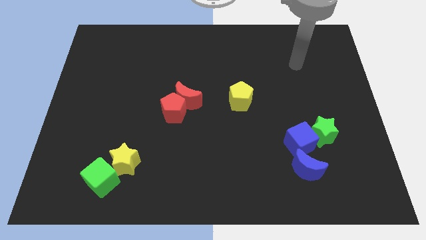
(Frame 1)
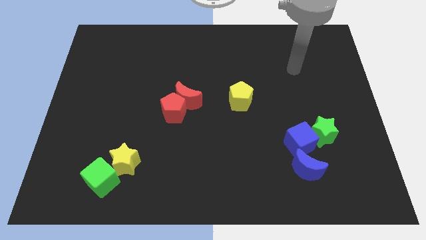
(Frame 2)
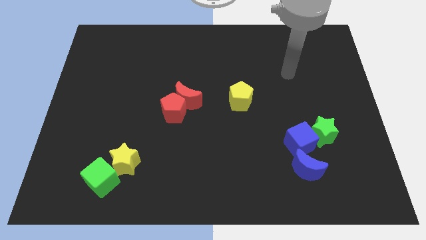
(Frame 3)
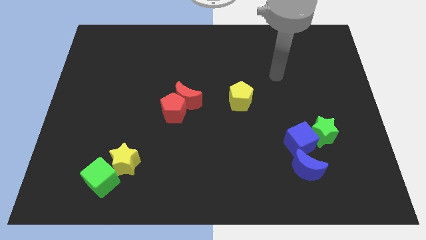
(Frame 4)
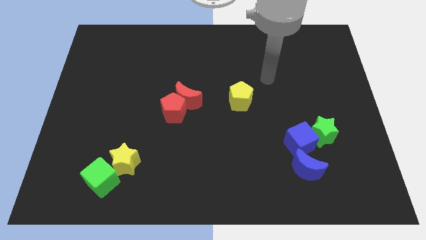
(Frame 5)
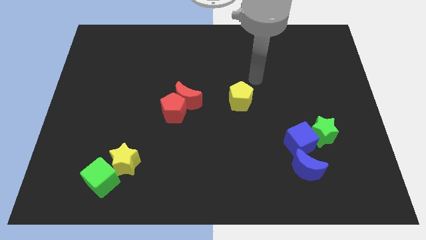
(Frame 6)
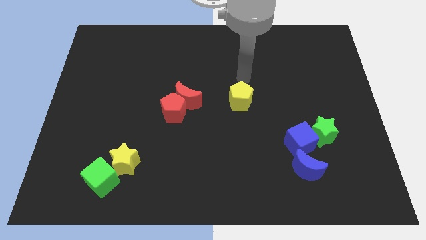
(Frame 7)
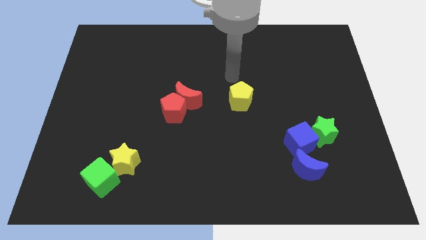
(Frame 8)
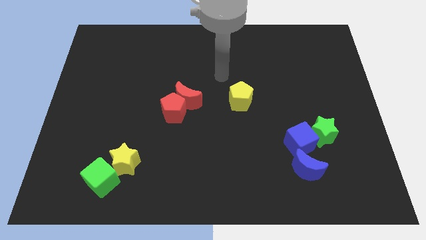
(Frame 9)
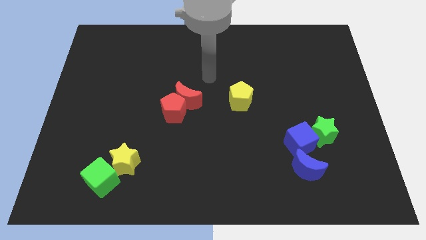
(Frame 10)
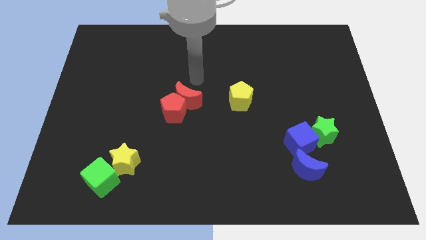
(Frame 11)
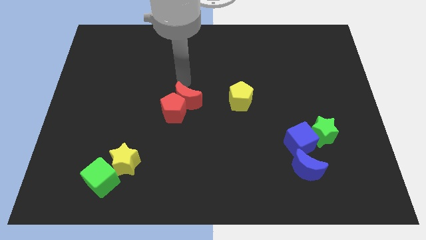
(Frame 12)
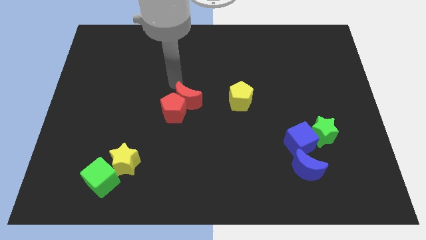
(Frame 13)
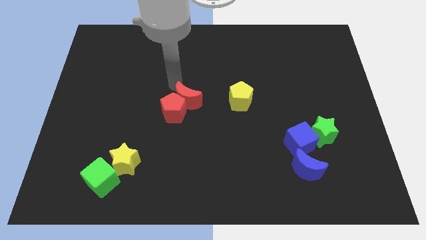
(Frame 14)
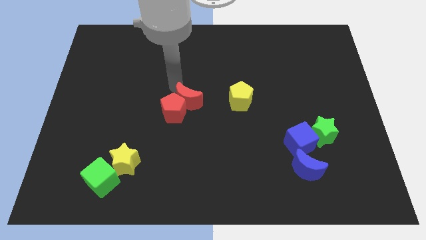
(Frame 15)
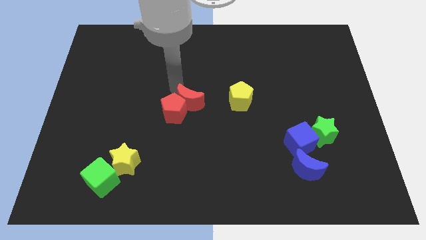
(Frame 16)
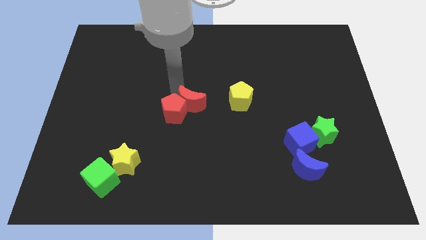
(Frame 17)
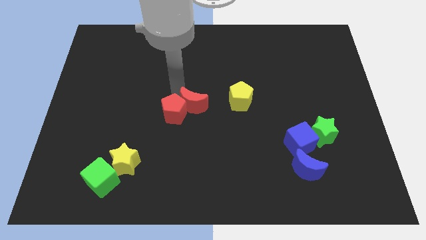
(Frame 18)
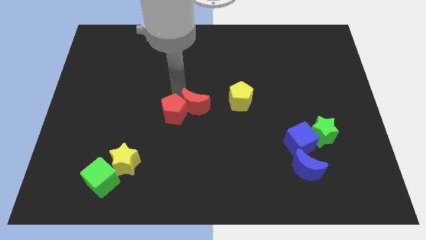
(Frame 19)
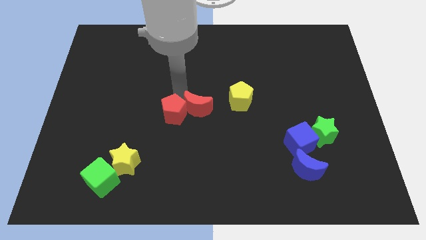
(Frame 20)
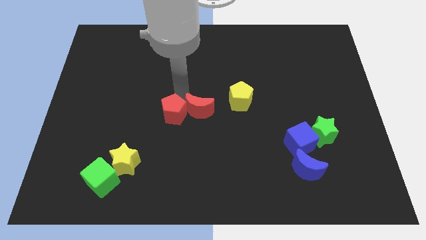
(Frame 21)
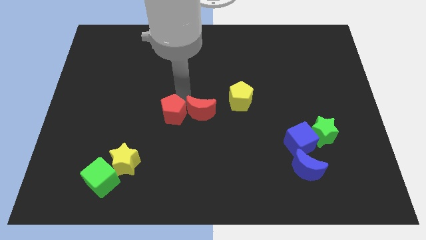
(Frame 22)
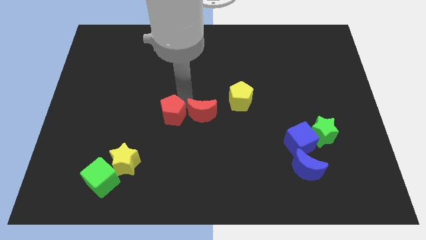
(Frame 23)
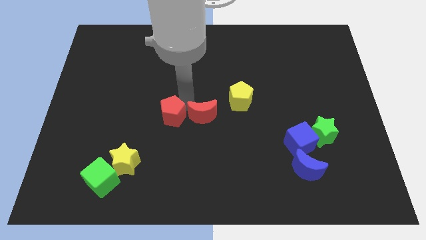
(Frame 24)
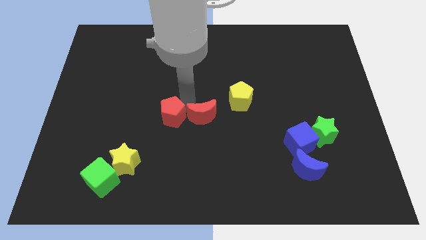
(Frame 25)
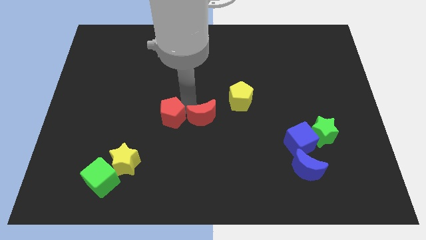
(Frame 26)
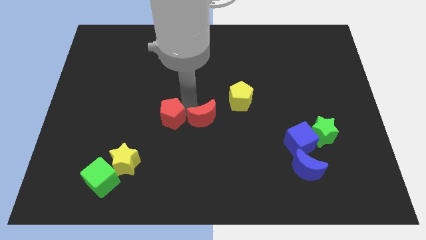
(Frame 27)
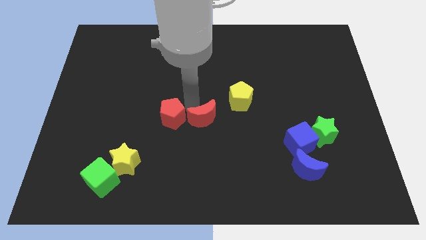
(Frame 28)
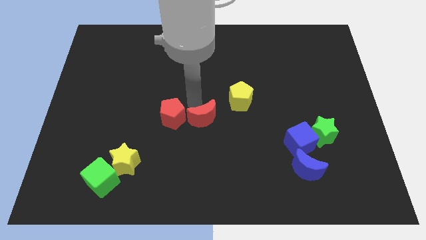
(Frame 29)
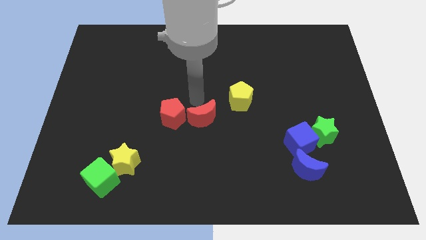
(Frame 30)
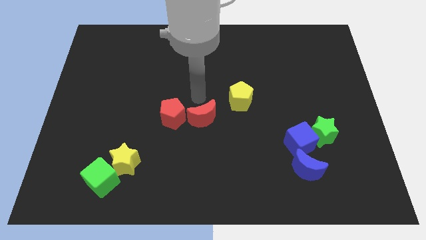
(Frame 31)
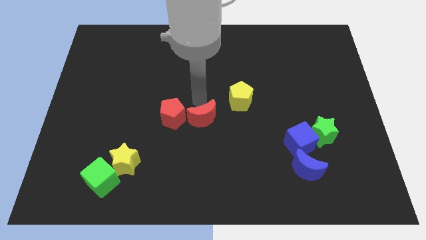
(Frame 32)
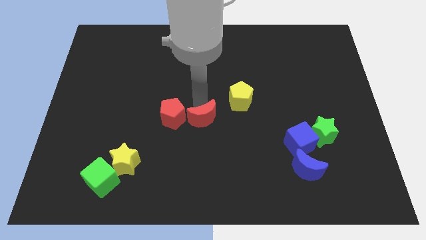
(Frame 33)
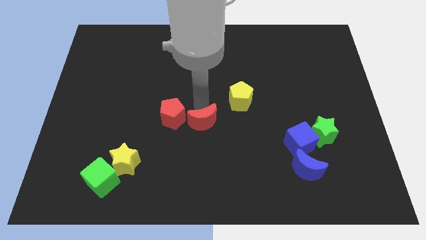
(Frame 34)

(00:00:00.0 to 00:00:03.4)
push the red moon downwards and to the right diagonally somewhat

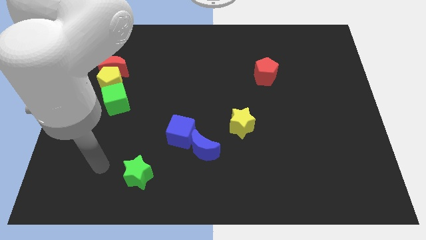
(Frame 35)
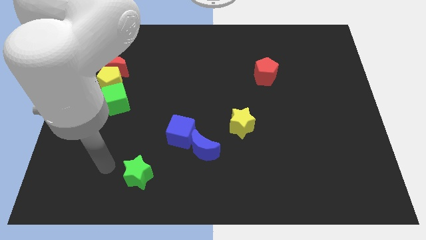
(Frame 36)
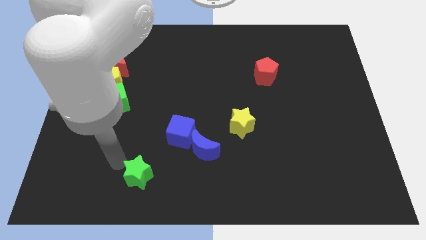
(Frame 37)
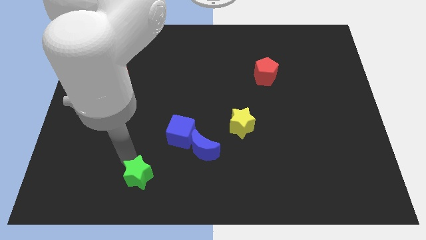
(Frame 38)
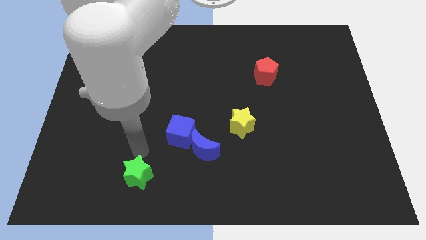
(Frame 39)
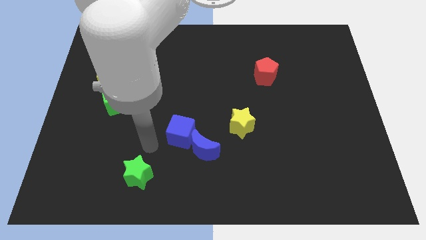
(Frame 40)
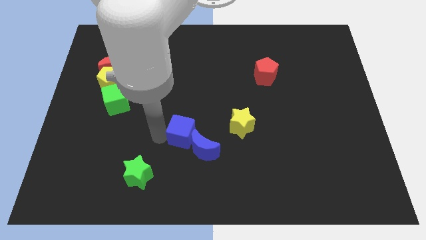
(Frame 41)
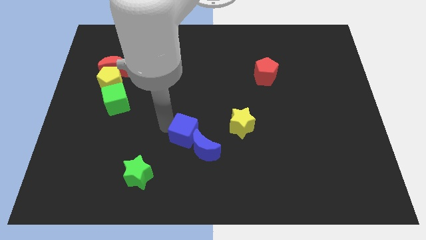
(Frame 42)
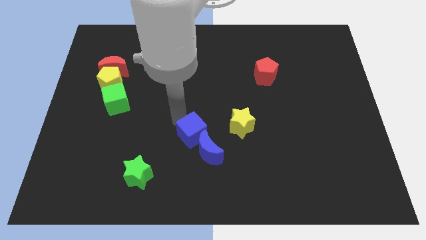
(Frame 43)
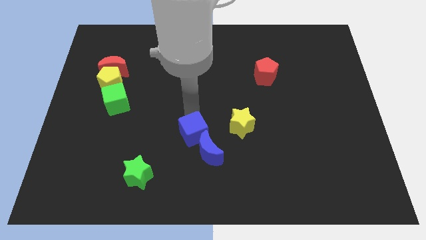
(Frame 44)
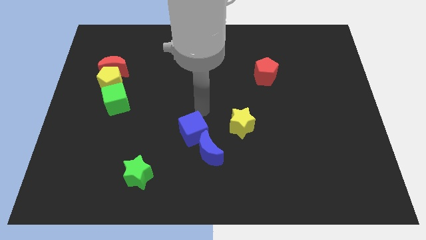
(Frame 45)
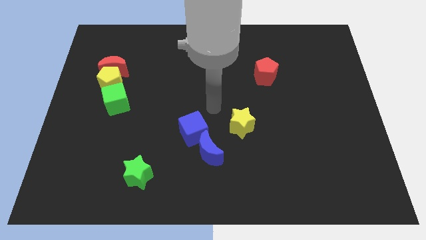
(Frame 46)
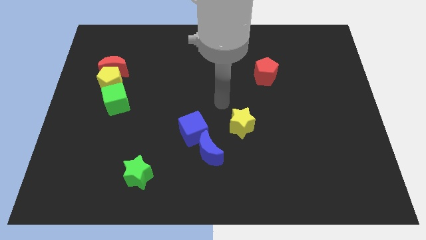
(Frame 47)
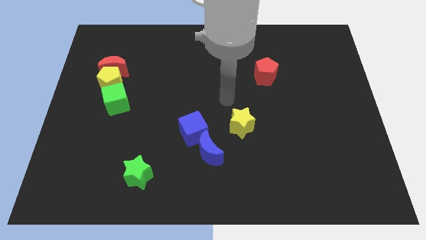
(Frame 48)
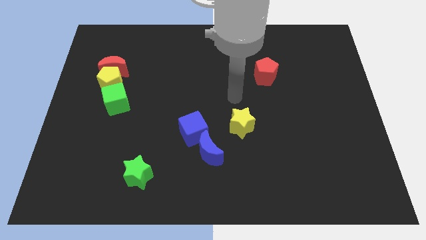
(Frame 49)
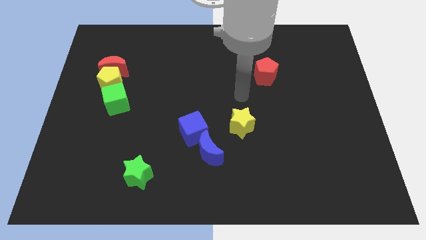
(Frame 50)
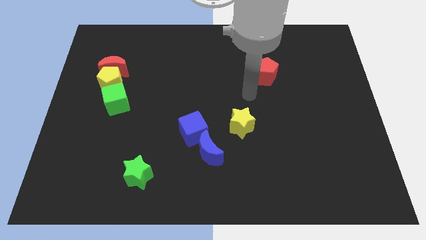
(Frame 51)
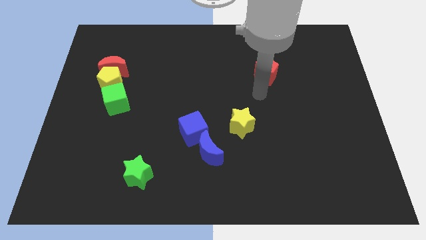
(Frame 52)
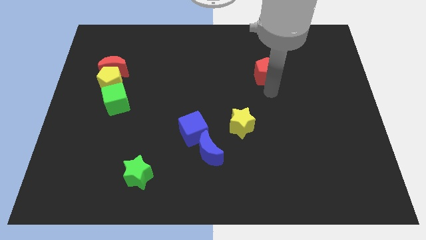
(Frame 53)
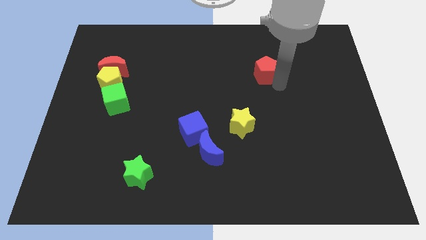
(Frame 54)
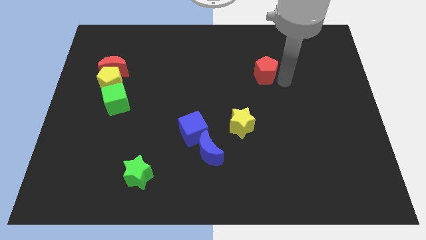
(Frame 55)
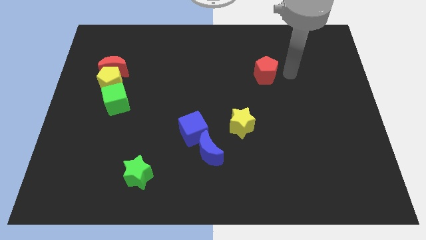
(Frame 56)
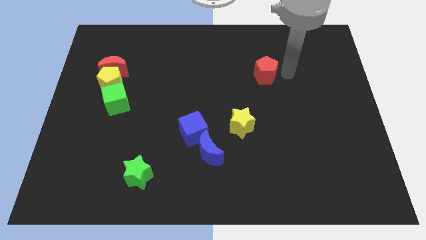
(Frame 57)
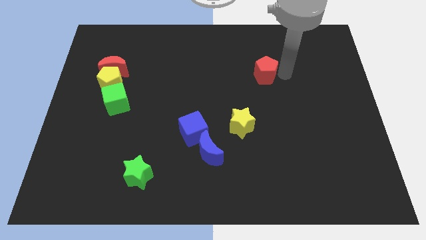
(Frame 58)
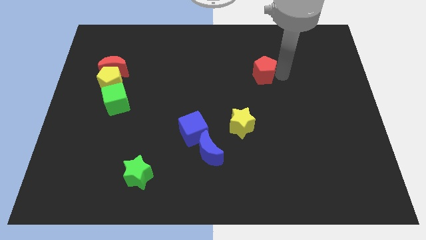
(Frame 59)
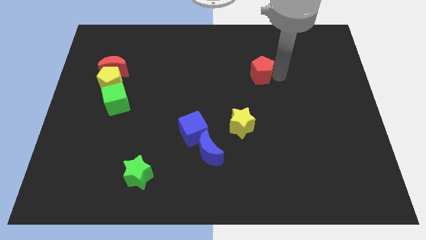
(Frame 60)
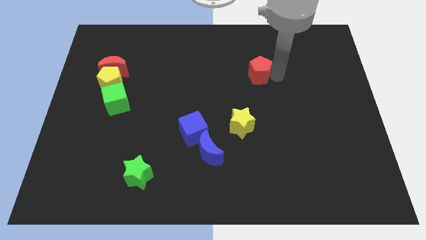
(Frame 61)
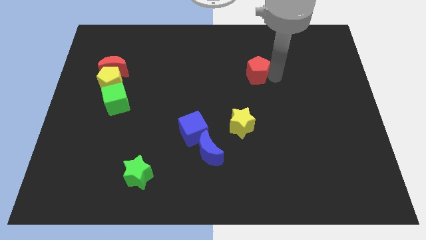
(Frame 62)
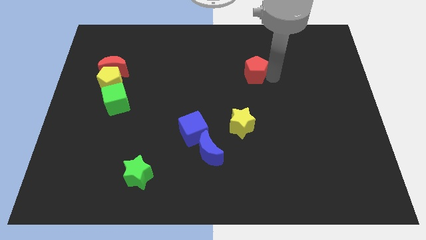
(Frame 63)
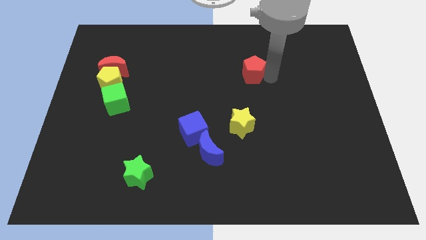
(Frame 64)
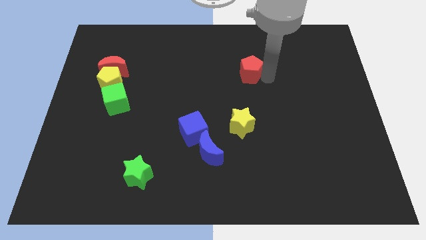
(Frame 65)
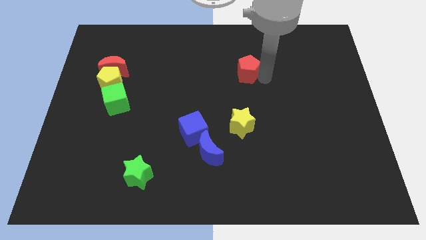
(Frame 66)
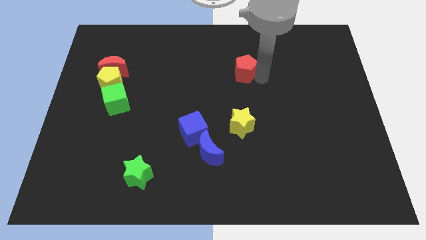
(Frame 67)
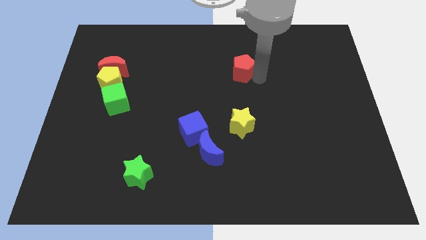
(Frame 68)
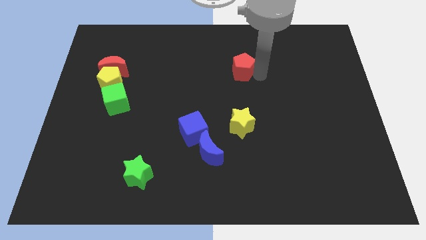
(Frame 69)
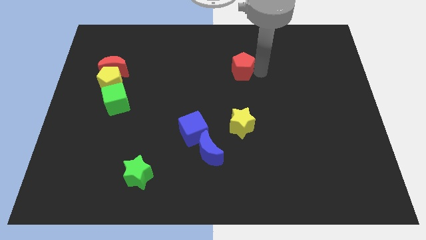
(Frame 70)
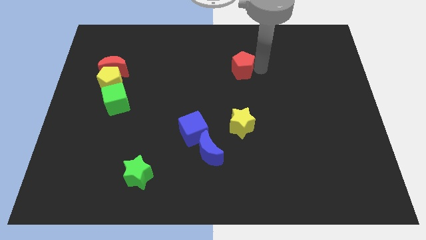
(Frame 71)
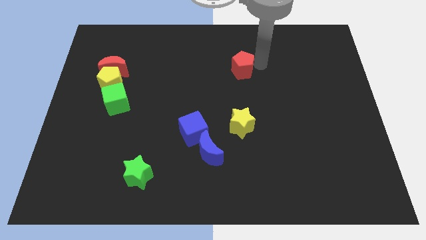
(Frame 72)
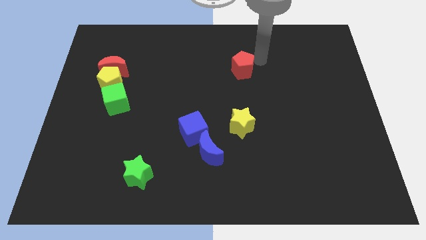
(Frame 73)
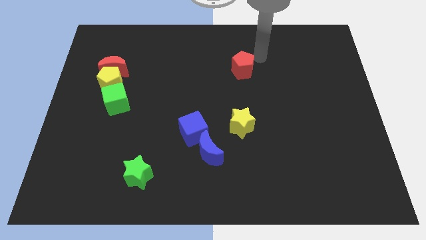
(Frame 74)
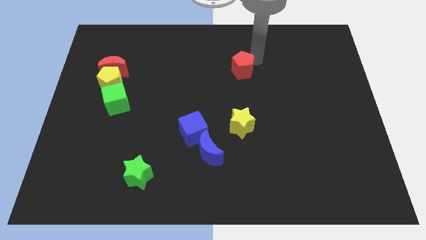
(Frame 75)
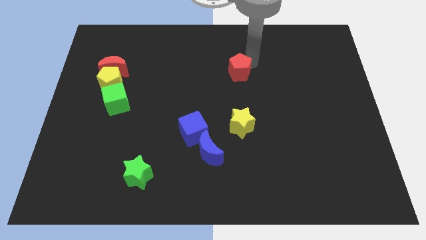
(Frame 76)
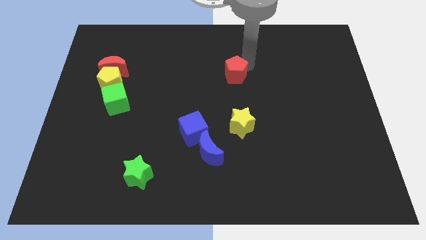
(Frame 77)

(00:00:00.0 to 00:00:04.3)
slide the red pentagon to the left a little
